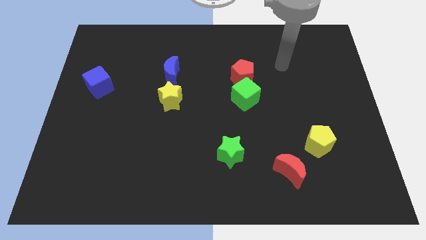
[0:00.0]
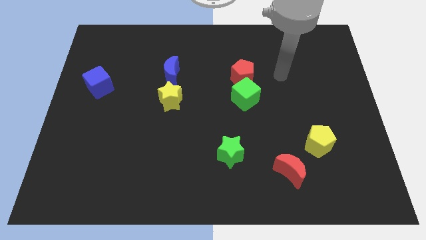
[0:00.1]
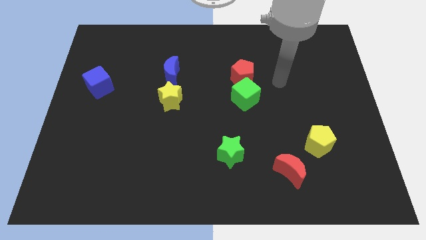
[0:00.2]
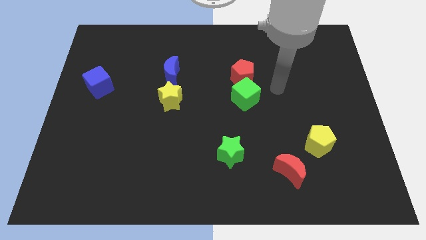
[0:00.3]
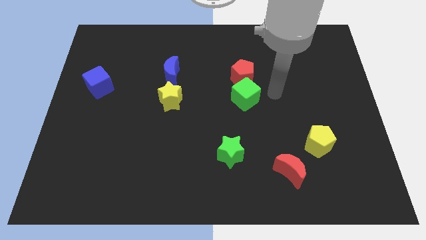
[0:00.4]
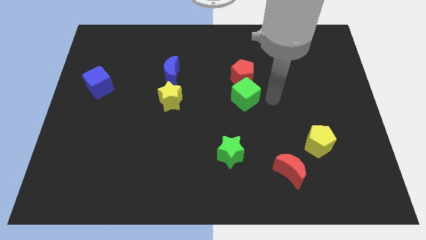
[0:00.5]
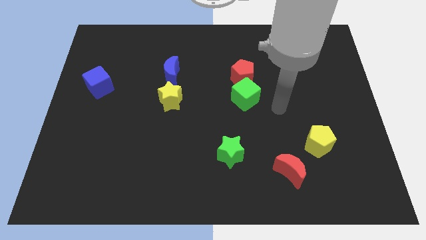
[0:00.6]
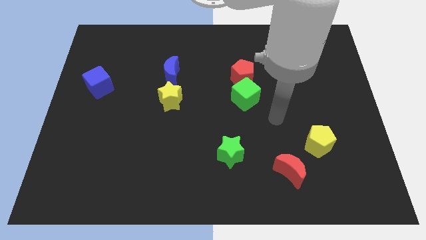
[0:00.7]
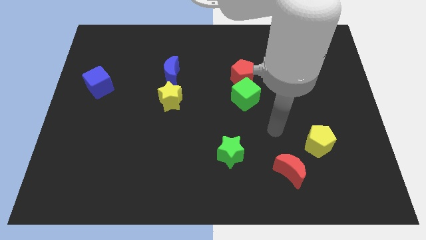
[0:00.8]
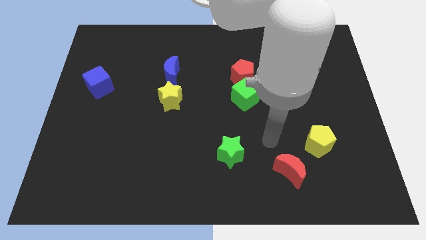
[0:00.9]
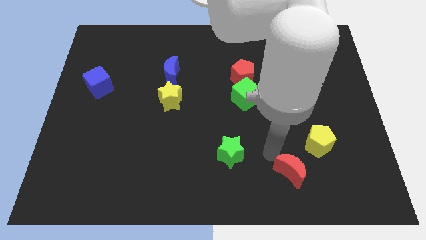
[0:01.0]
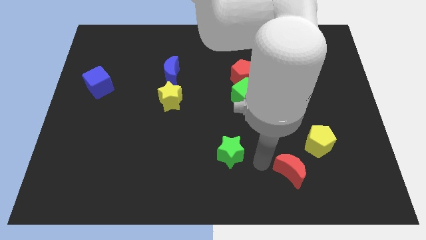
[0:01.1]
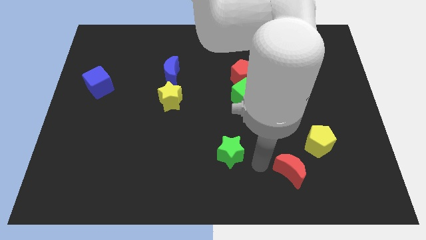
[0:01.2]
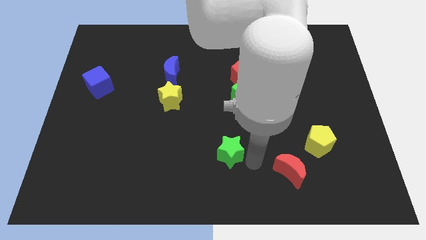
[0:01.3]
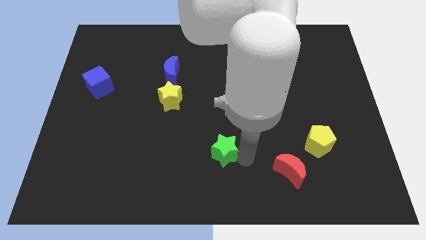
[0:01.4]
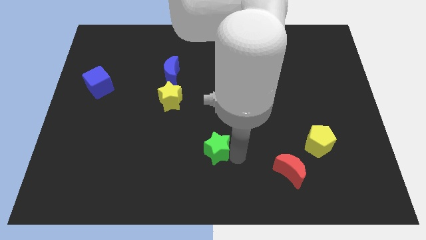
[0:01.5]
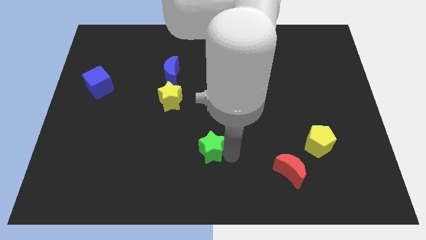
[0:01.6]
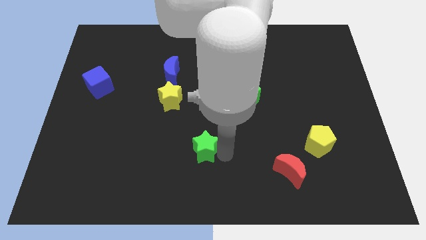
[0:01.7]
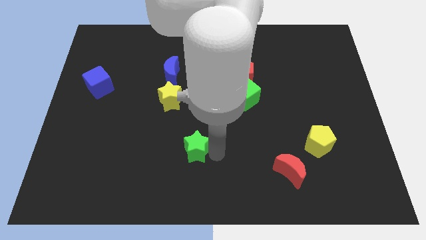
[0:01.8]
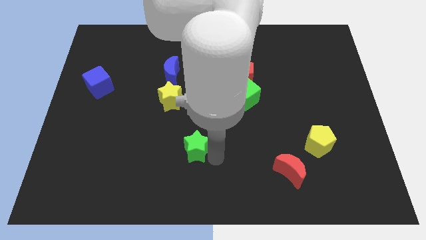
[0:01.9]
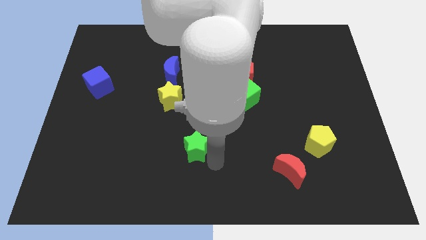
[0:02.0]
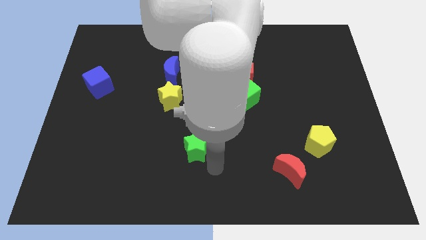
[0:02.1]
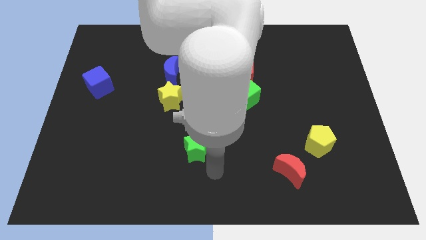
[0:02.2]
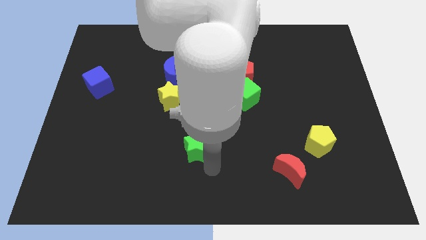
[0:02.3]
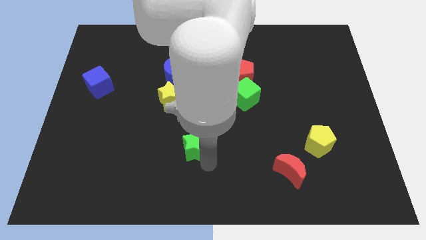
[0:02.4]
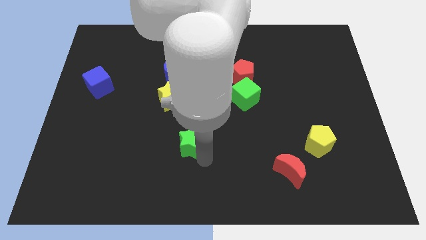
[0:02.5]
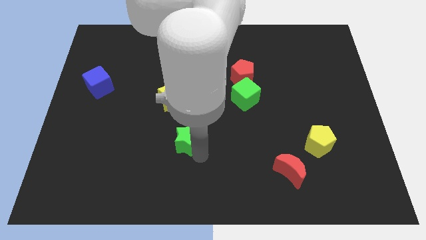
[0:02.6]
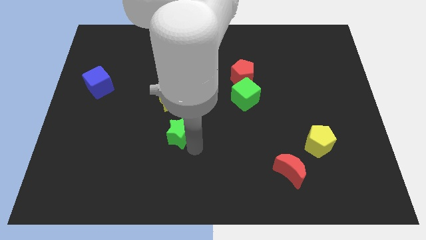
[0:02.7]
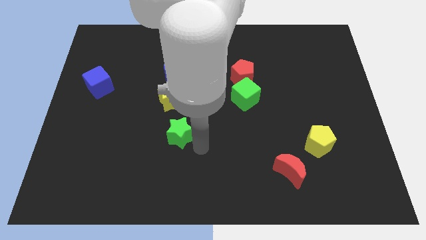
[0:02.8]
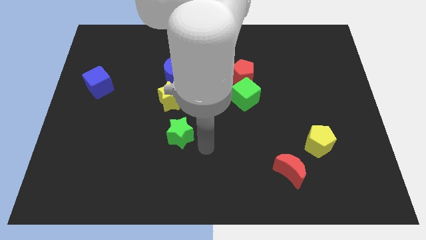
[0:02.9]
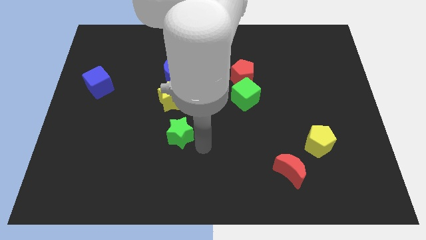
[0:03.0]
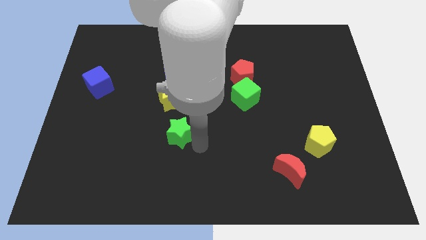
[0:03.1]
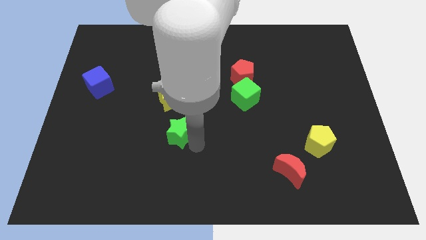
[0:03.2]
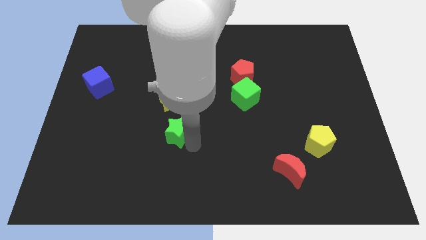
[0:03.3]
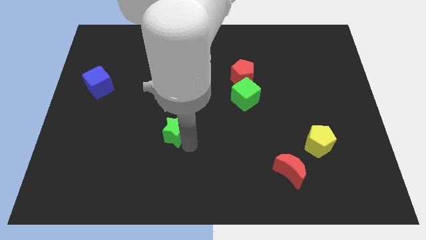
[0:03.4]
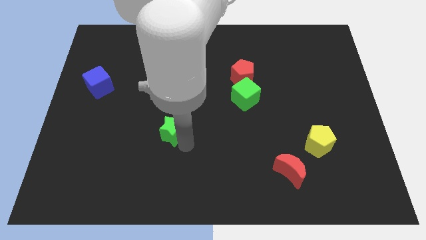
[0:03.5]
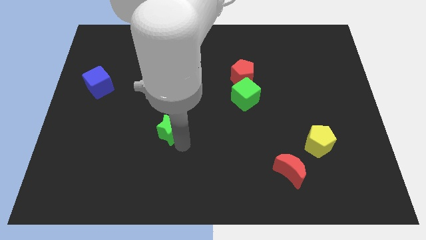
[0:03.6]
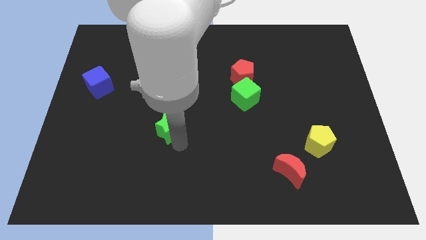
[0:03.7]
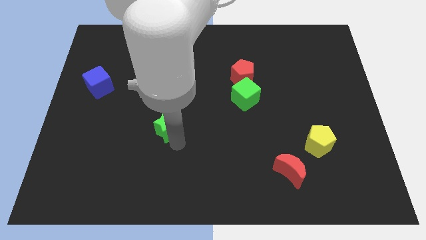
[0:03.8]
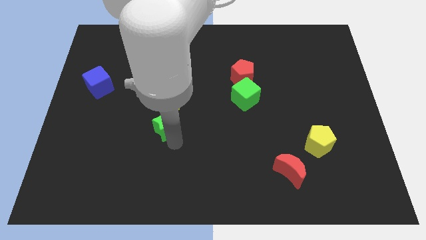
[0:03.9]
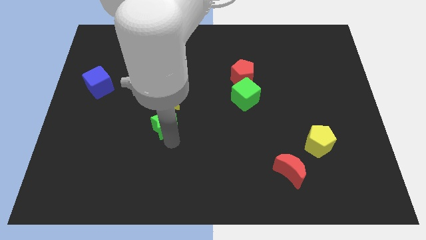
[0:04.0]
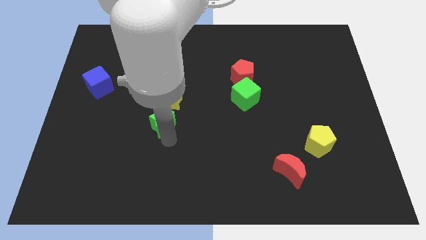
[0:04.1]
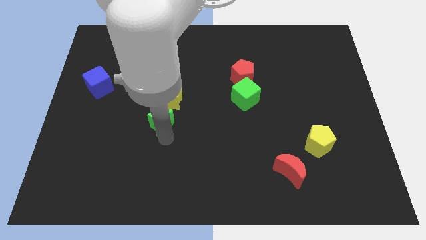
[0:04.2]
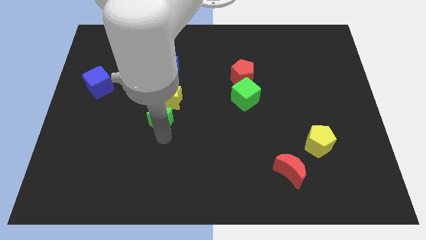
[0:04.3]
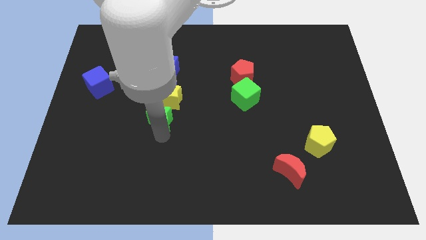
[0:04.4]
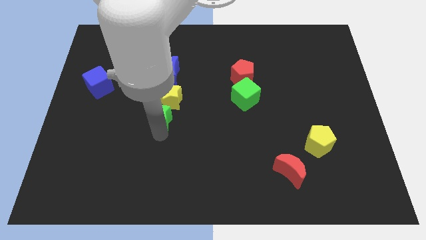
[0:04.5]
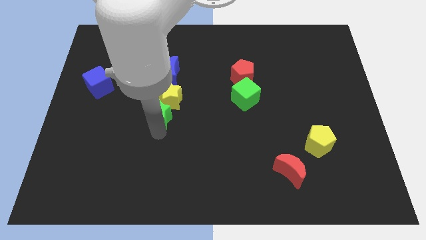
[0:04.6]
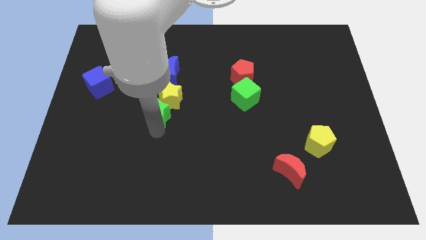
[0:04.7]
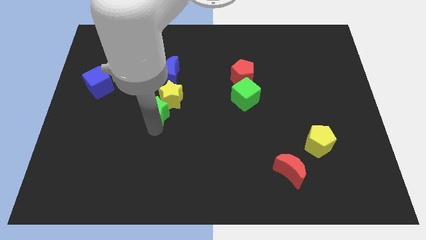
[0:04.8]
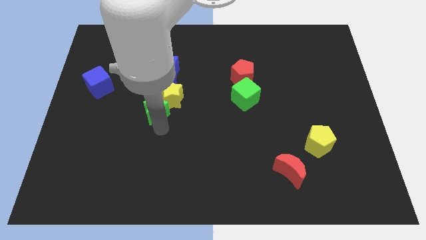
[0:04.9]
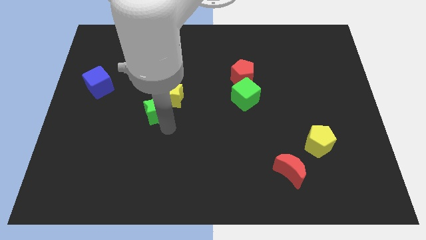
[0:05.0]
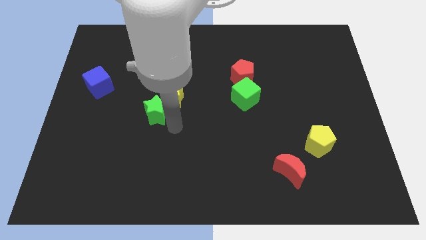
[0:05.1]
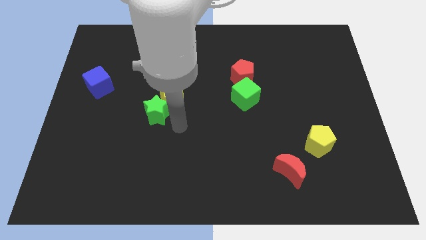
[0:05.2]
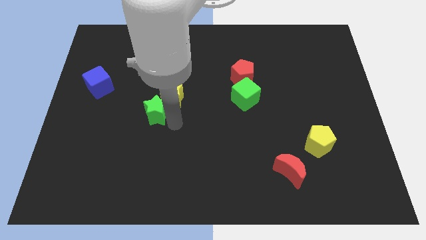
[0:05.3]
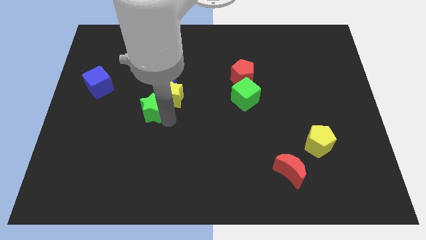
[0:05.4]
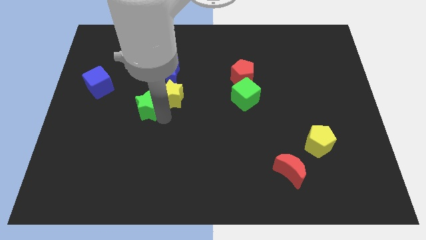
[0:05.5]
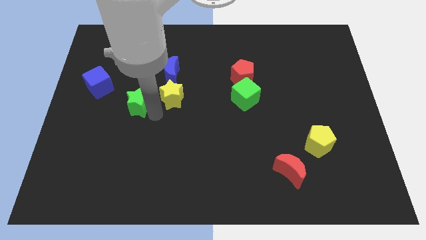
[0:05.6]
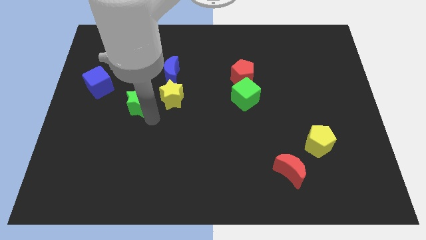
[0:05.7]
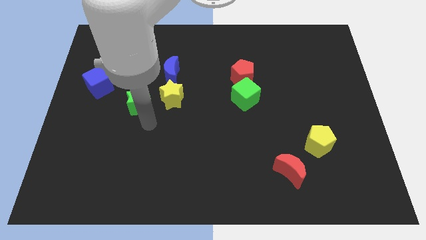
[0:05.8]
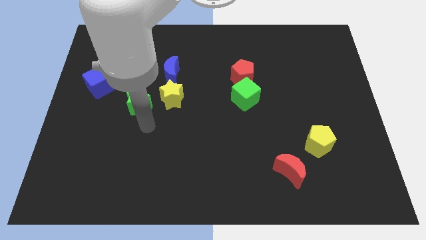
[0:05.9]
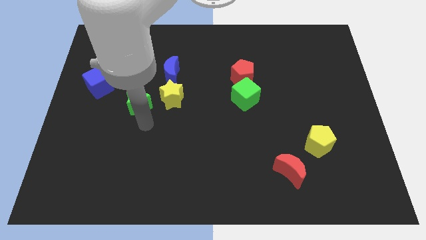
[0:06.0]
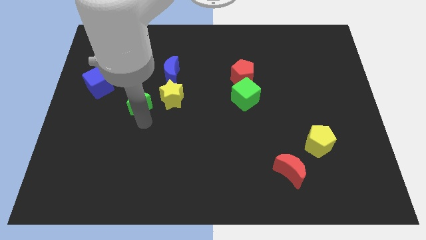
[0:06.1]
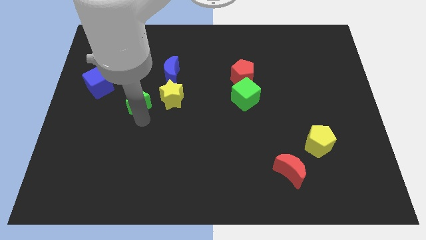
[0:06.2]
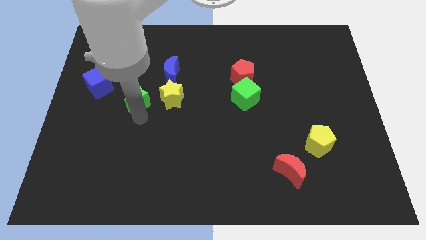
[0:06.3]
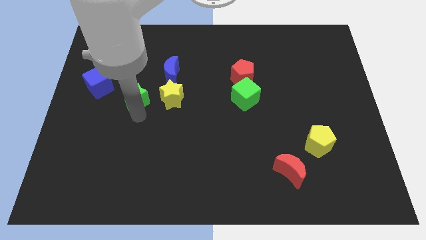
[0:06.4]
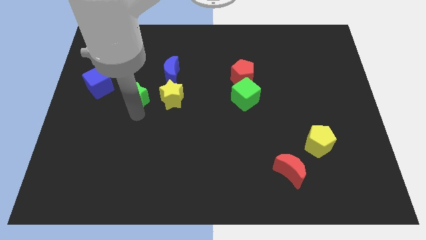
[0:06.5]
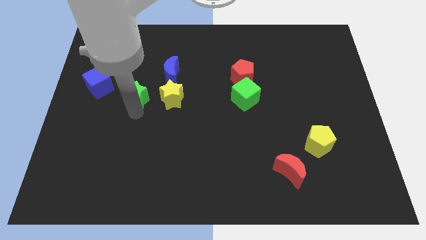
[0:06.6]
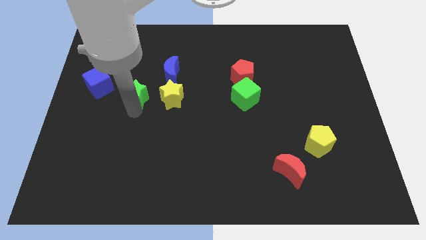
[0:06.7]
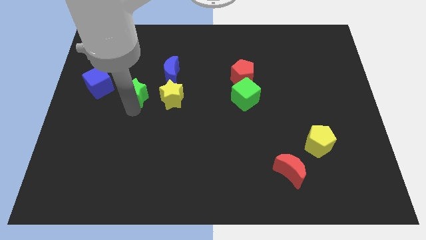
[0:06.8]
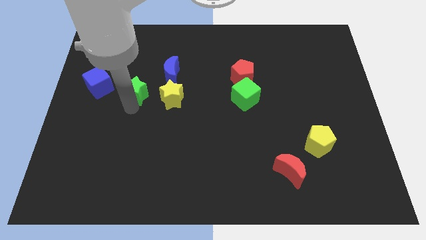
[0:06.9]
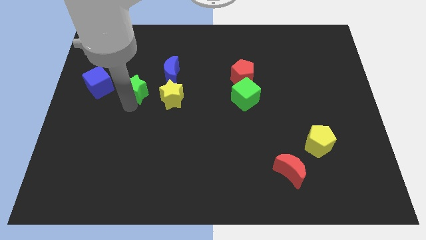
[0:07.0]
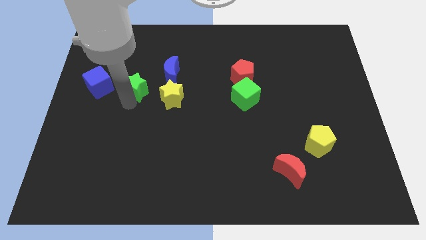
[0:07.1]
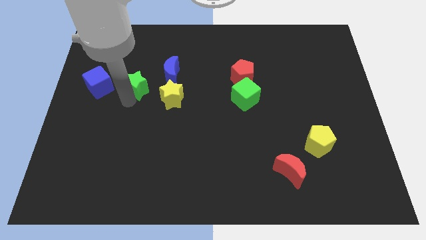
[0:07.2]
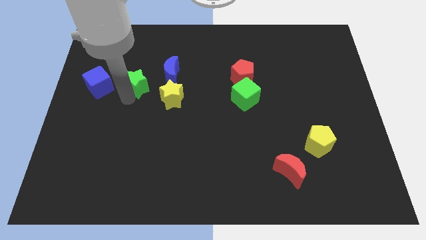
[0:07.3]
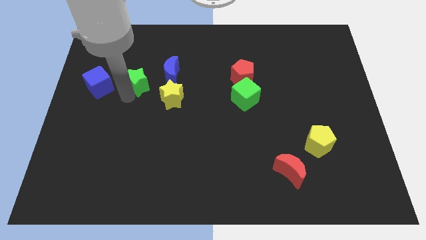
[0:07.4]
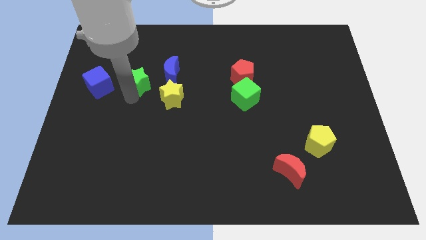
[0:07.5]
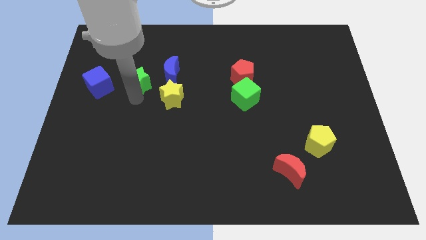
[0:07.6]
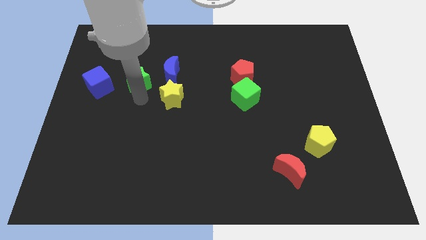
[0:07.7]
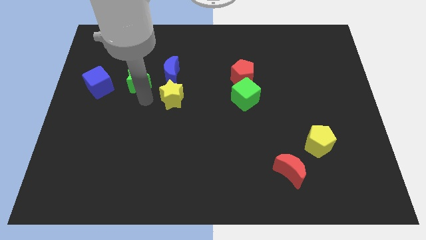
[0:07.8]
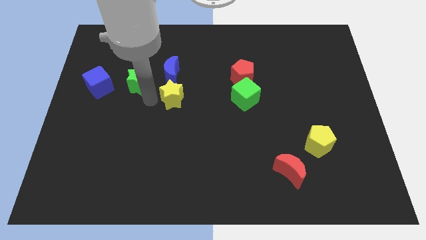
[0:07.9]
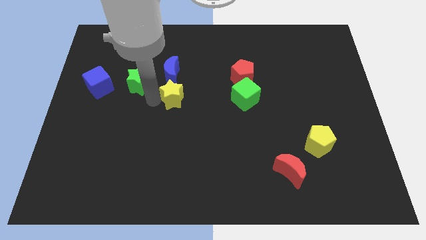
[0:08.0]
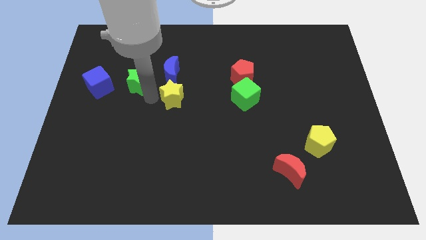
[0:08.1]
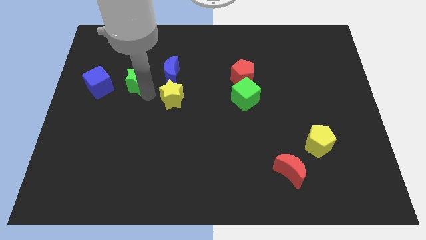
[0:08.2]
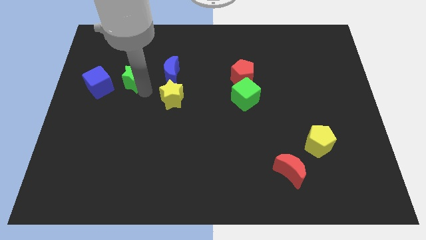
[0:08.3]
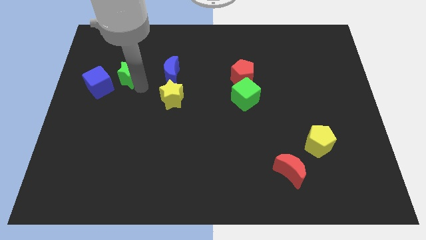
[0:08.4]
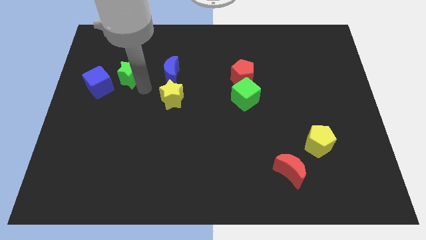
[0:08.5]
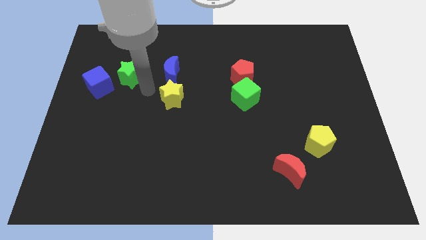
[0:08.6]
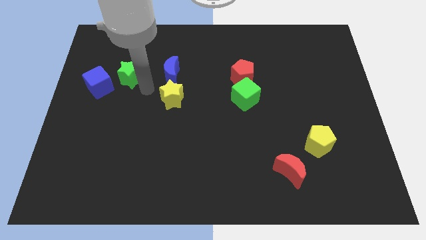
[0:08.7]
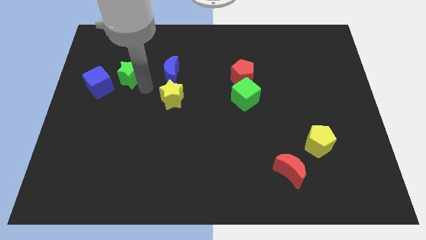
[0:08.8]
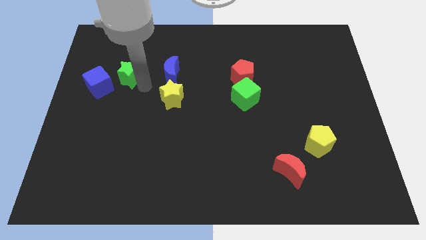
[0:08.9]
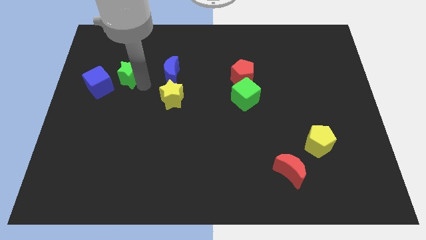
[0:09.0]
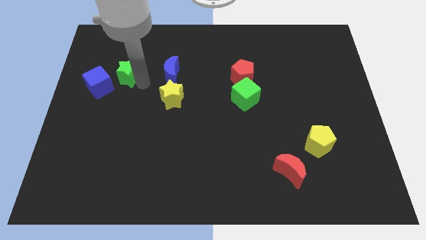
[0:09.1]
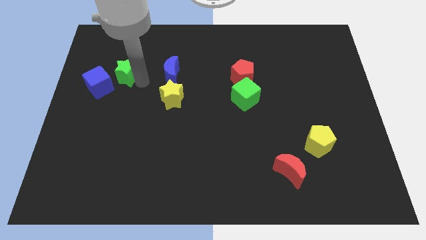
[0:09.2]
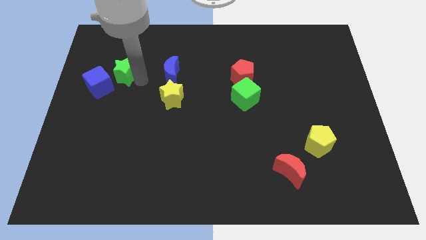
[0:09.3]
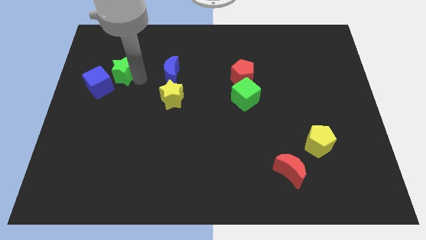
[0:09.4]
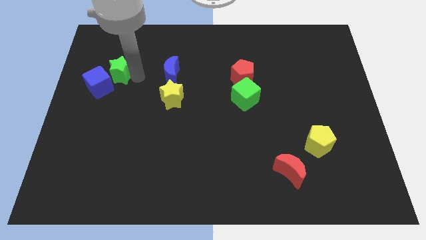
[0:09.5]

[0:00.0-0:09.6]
push the green star to the top side of the blue cube
